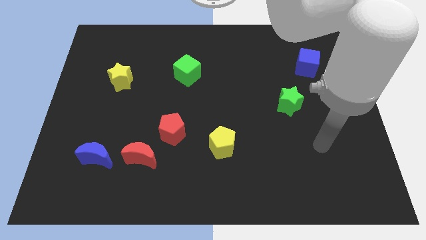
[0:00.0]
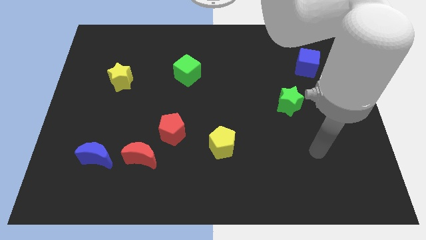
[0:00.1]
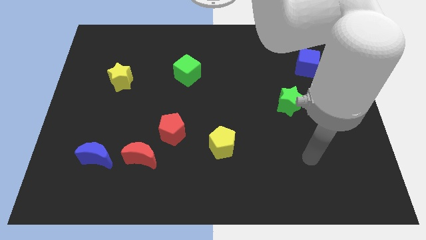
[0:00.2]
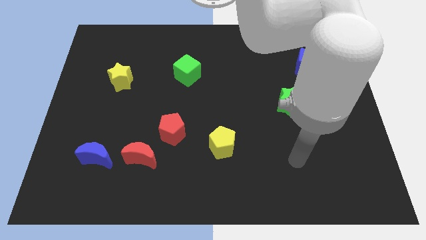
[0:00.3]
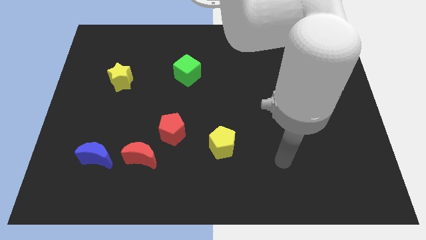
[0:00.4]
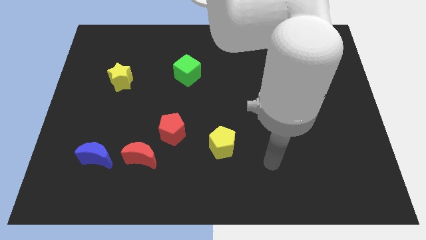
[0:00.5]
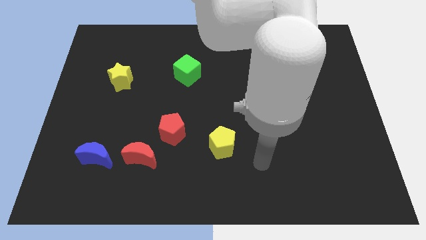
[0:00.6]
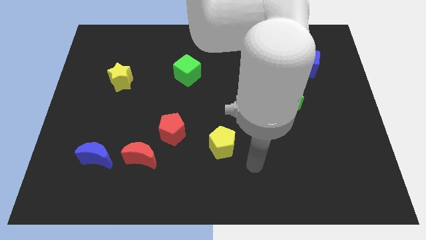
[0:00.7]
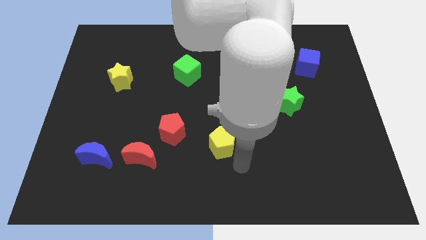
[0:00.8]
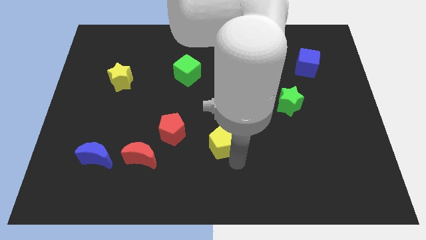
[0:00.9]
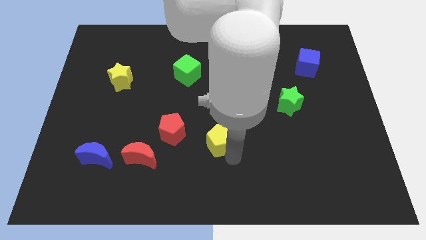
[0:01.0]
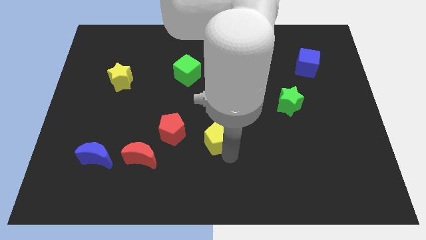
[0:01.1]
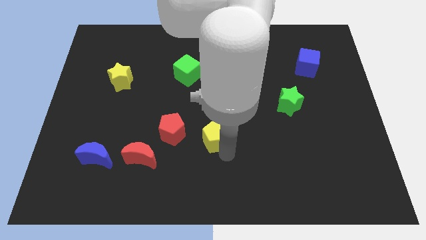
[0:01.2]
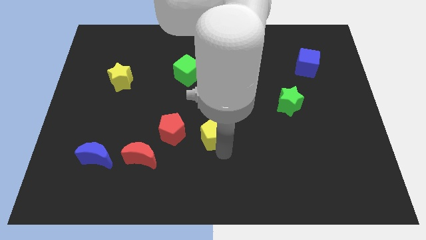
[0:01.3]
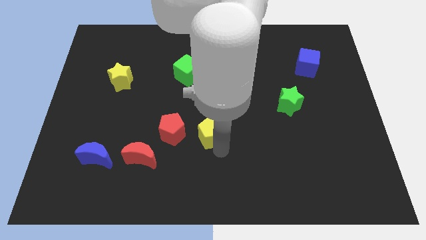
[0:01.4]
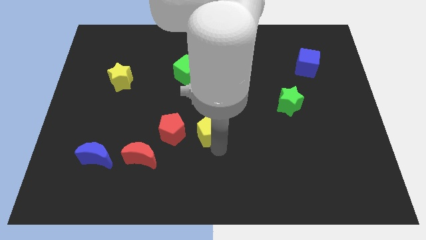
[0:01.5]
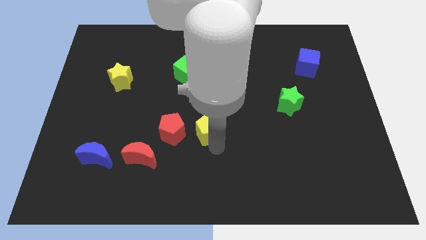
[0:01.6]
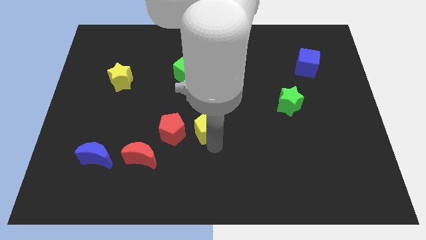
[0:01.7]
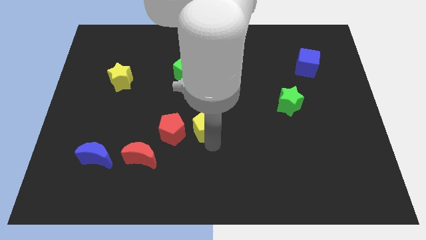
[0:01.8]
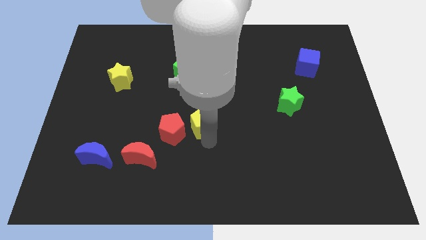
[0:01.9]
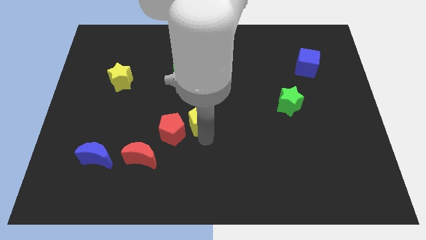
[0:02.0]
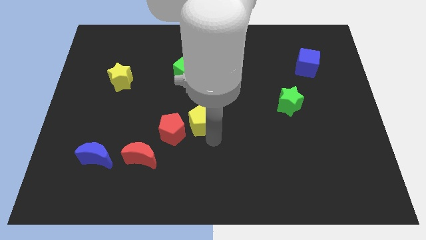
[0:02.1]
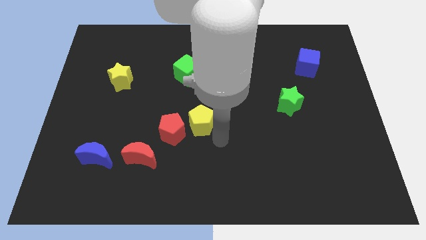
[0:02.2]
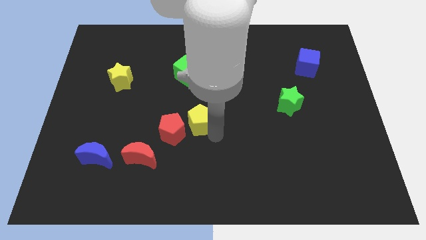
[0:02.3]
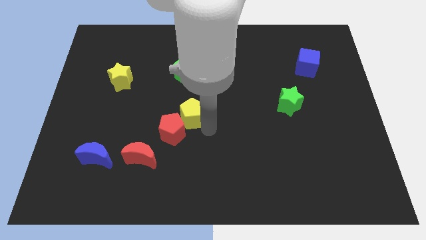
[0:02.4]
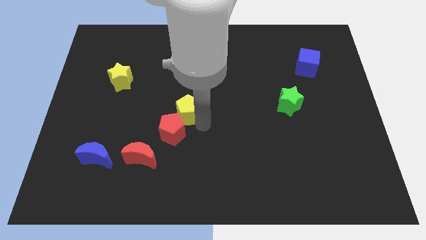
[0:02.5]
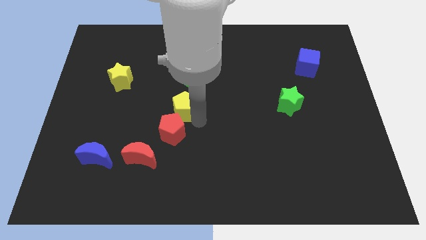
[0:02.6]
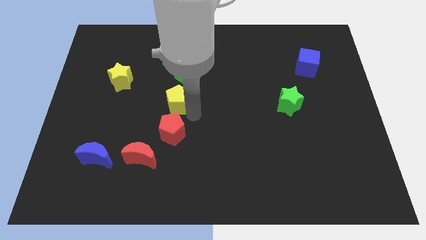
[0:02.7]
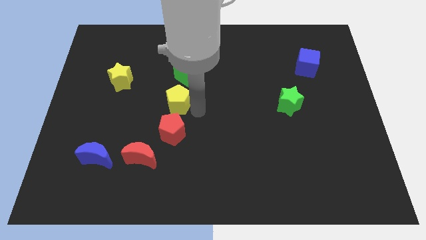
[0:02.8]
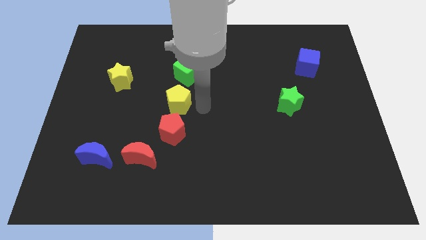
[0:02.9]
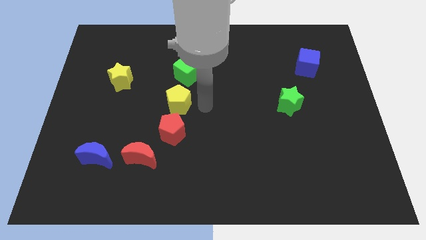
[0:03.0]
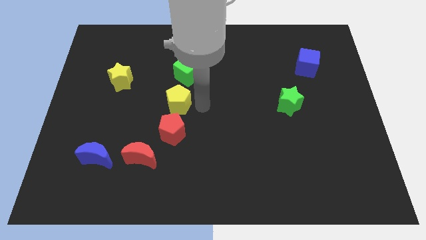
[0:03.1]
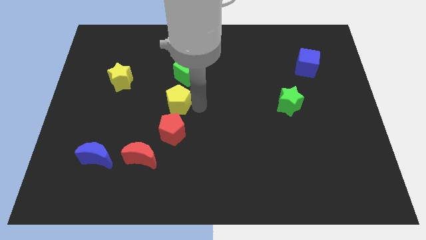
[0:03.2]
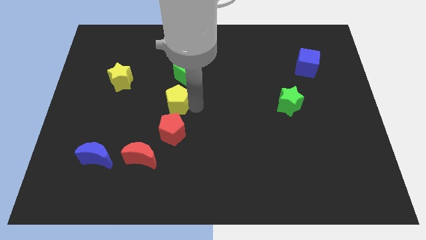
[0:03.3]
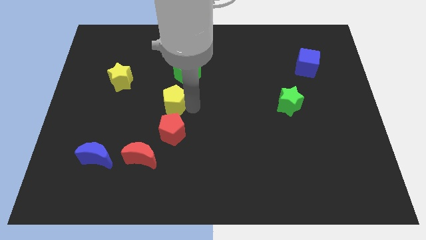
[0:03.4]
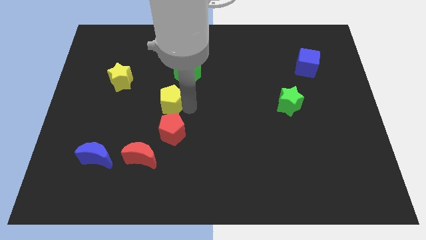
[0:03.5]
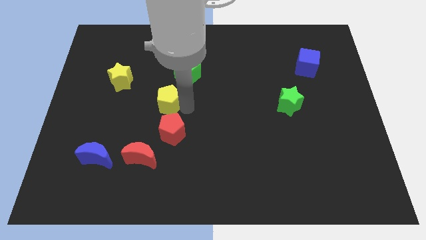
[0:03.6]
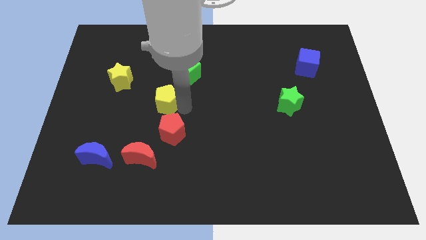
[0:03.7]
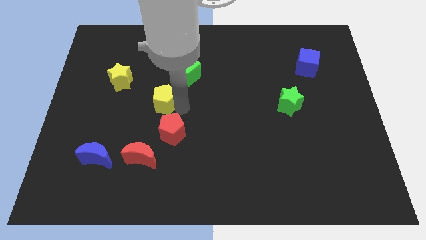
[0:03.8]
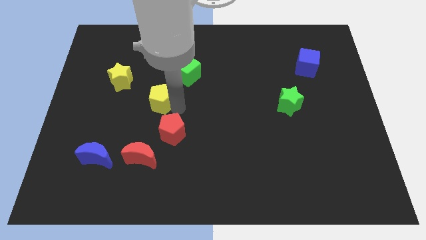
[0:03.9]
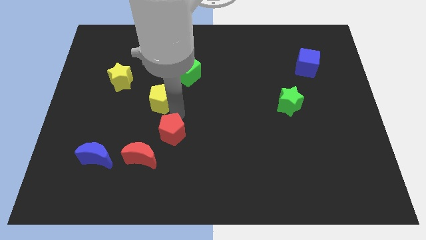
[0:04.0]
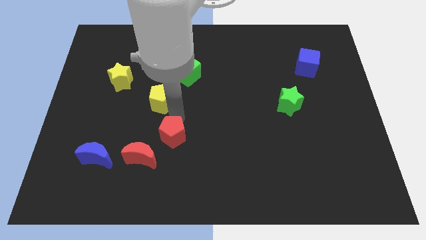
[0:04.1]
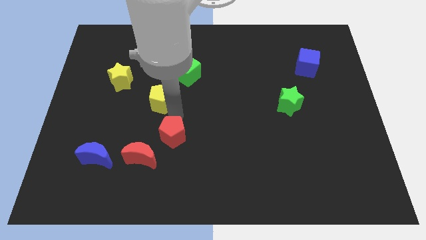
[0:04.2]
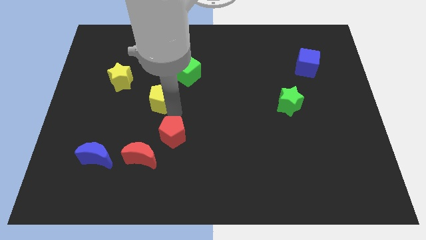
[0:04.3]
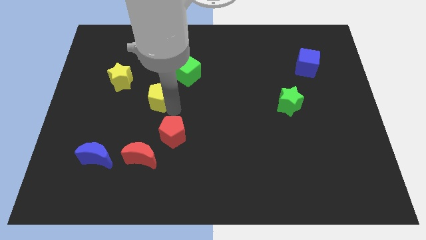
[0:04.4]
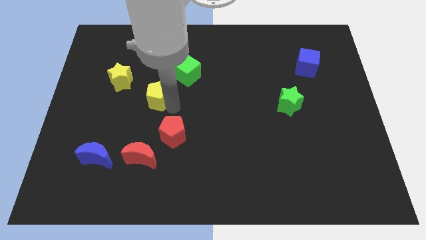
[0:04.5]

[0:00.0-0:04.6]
move the yellow pentagon upwards and left diagonally

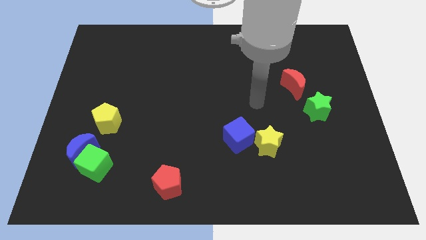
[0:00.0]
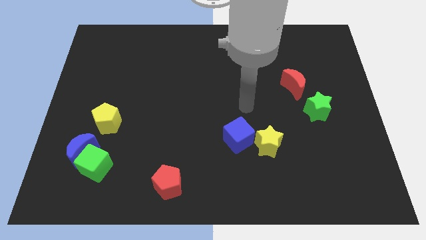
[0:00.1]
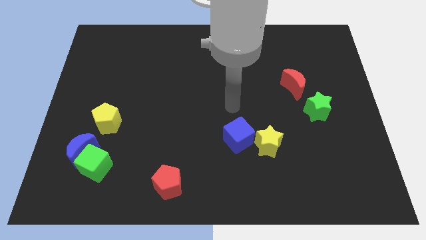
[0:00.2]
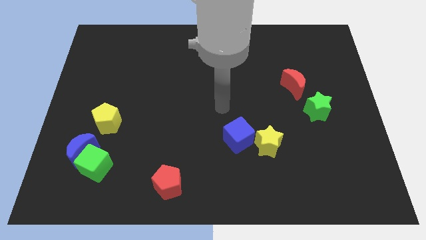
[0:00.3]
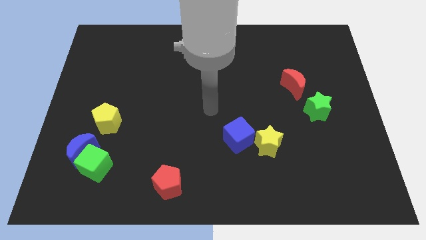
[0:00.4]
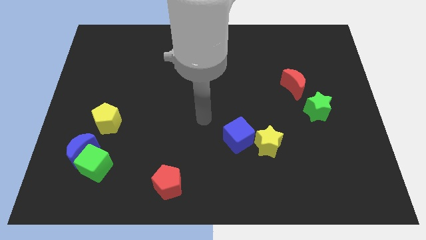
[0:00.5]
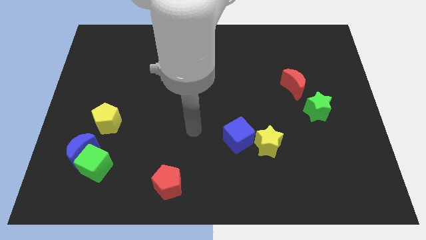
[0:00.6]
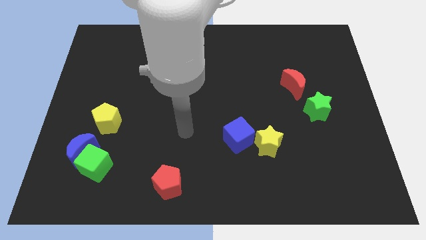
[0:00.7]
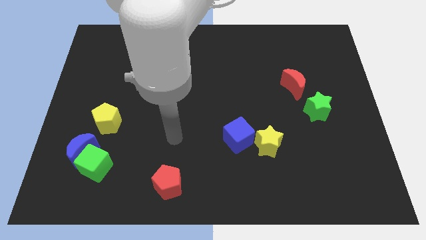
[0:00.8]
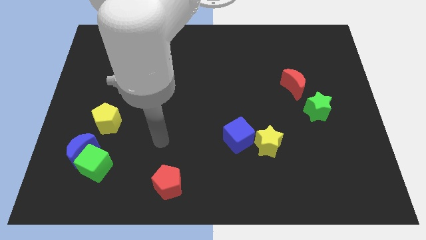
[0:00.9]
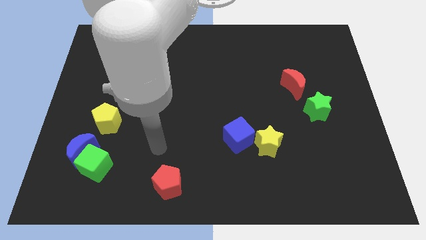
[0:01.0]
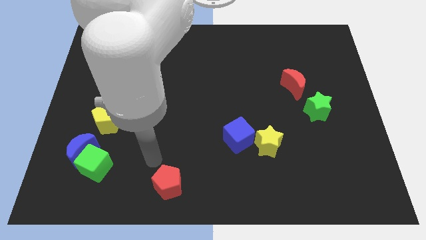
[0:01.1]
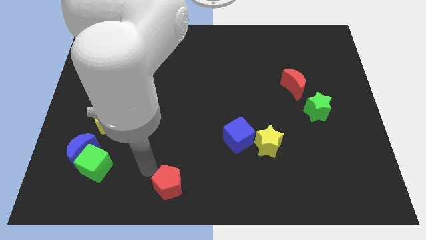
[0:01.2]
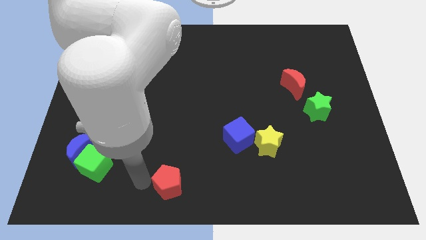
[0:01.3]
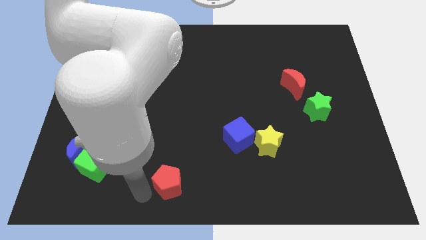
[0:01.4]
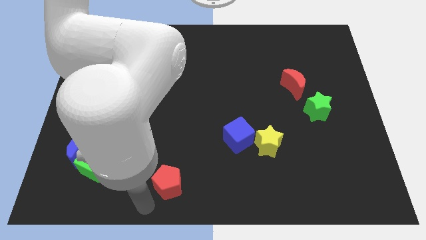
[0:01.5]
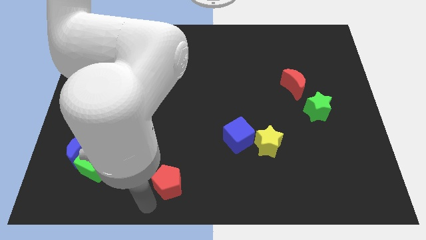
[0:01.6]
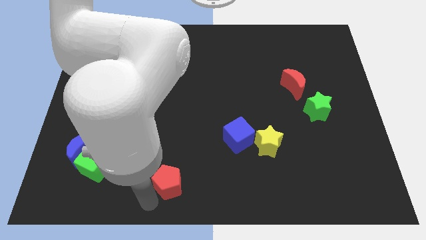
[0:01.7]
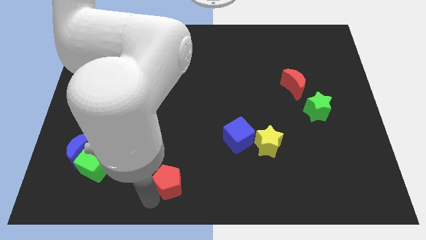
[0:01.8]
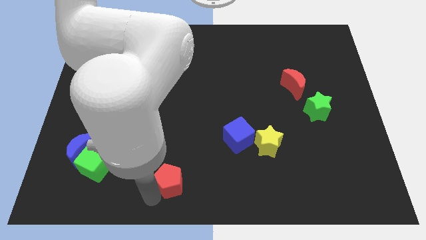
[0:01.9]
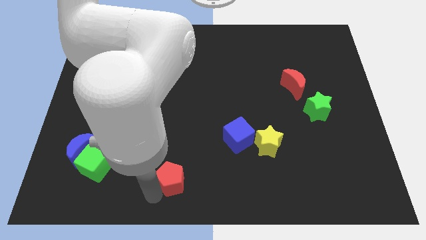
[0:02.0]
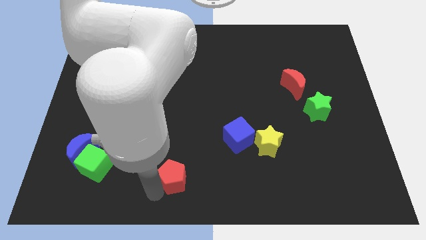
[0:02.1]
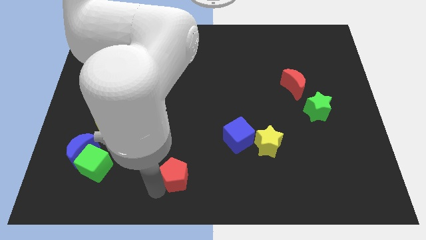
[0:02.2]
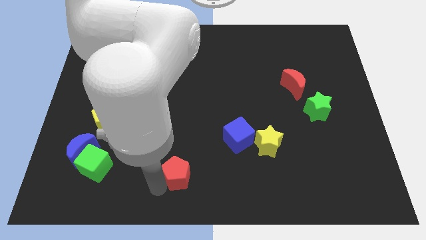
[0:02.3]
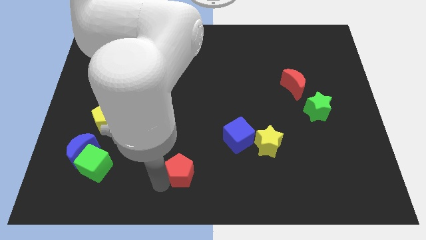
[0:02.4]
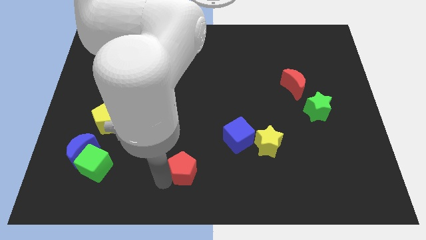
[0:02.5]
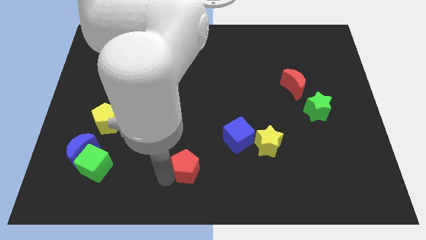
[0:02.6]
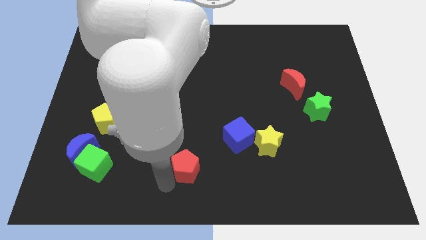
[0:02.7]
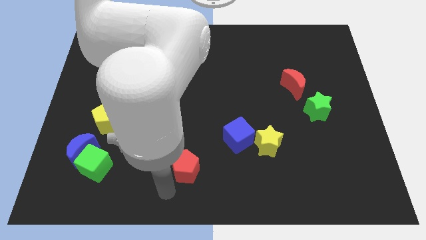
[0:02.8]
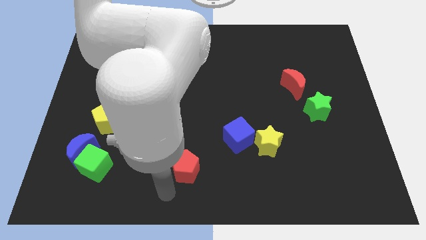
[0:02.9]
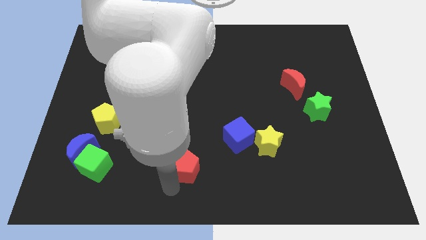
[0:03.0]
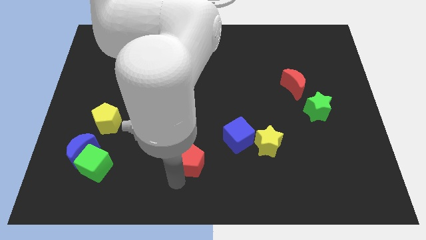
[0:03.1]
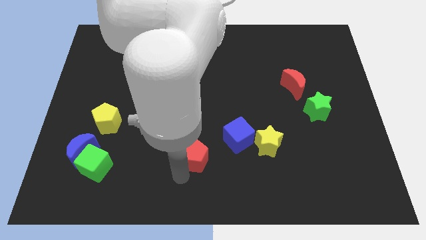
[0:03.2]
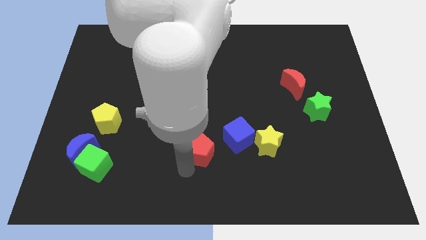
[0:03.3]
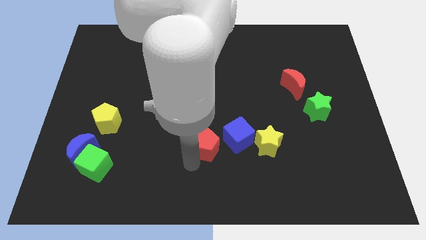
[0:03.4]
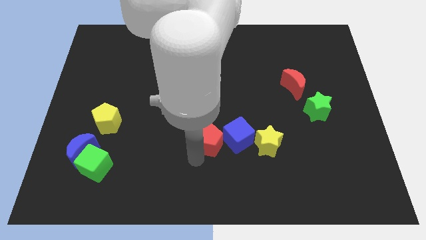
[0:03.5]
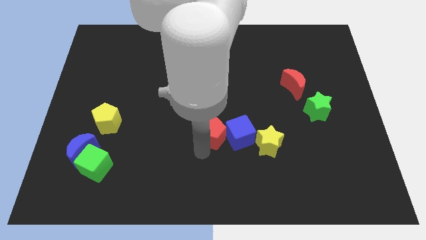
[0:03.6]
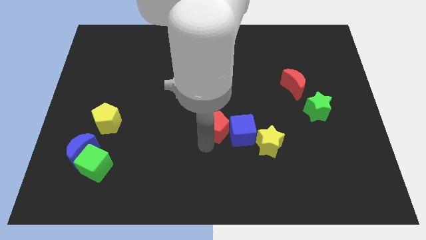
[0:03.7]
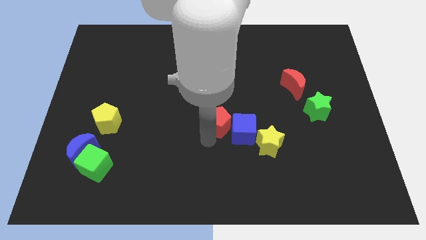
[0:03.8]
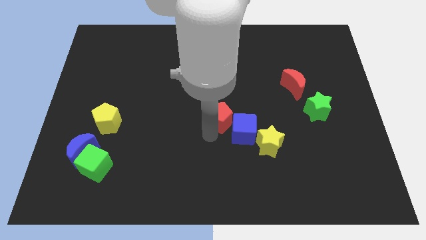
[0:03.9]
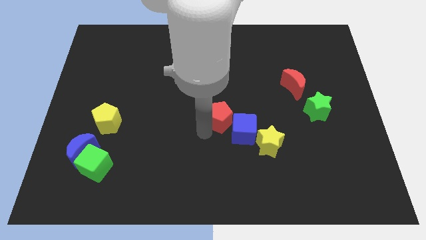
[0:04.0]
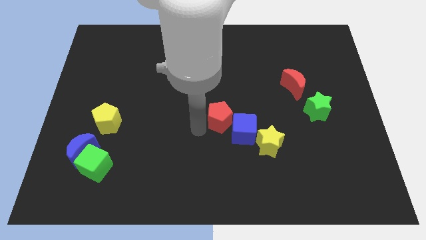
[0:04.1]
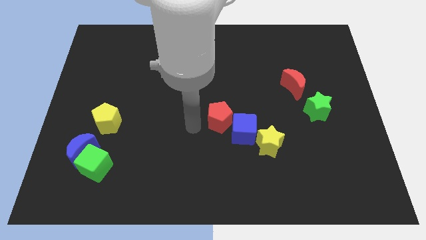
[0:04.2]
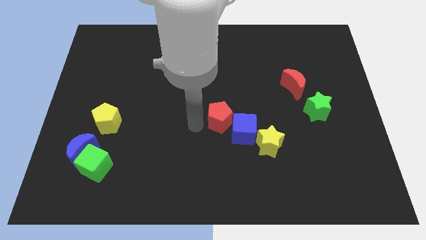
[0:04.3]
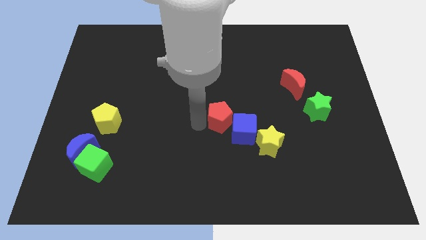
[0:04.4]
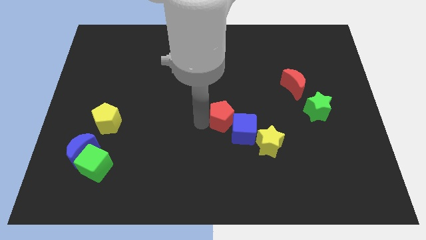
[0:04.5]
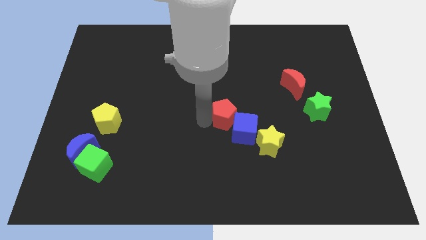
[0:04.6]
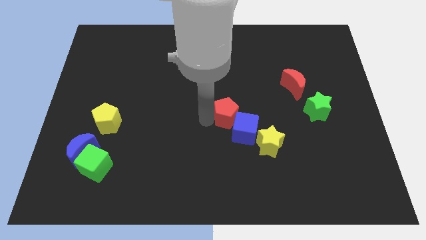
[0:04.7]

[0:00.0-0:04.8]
push the red pentagon up and then right
